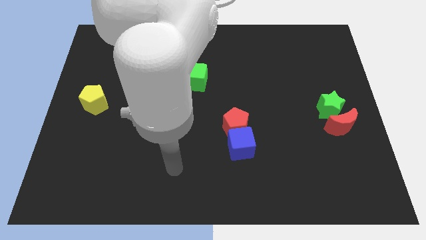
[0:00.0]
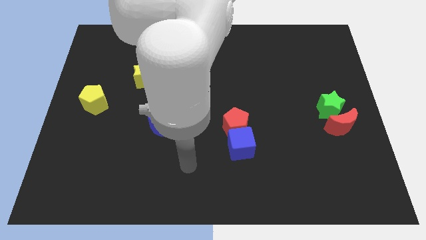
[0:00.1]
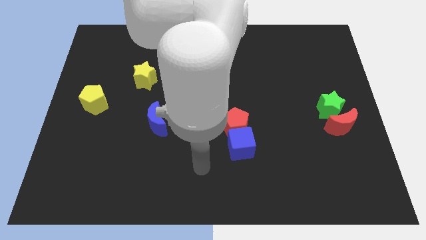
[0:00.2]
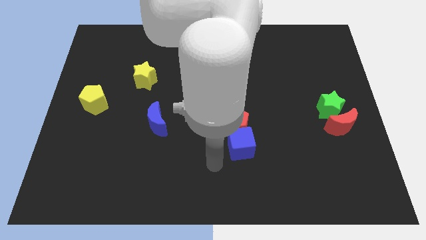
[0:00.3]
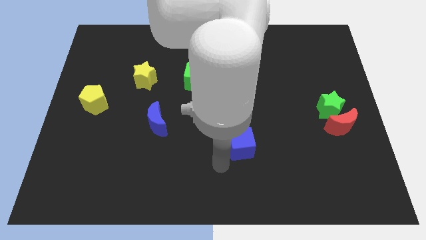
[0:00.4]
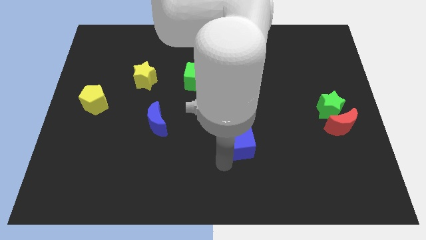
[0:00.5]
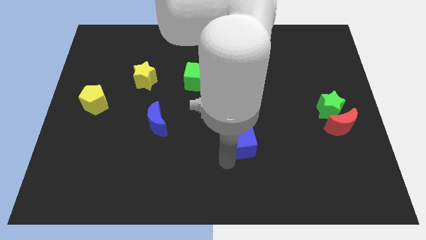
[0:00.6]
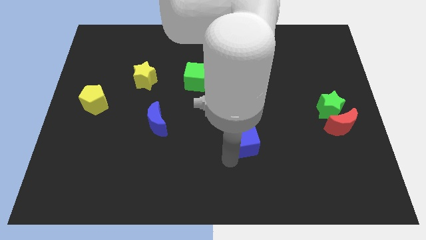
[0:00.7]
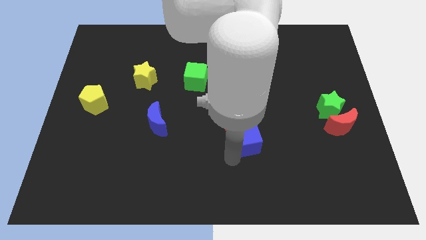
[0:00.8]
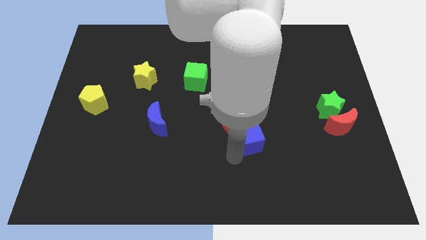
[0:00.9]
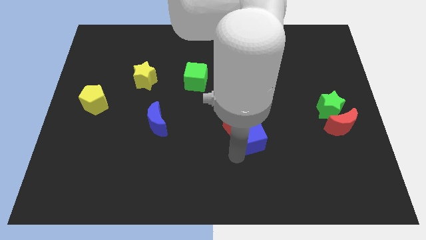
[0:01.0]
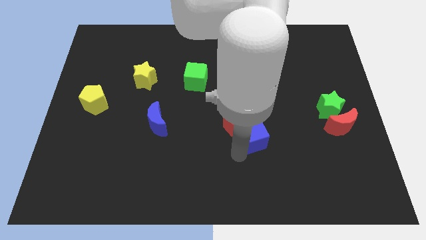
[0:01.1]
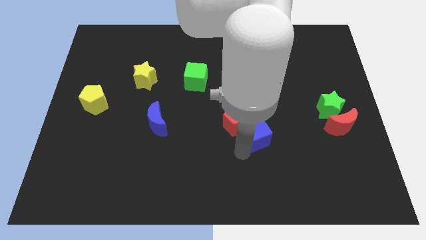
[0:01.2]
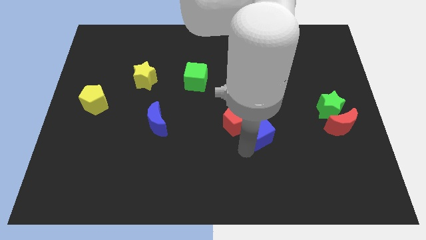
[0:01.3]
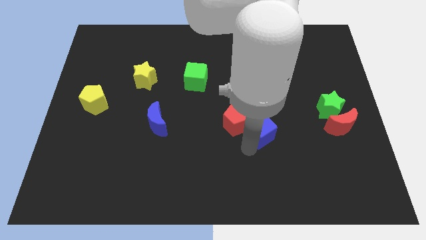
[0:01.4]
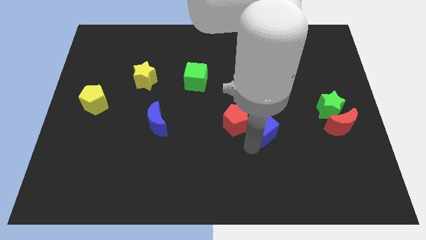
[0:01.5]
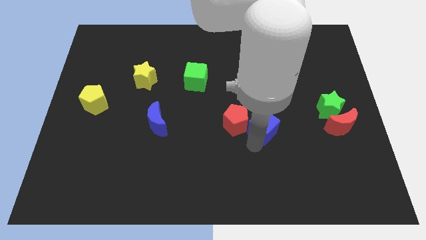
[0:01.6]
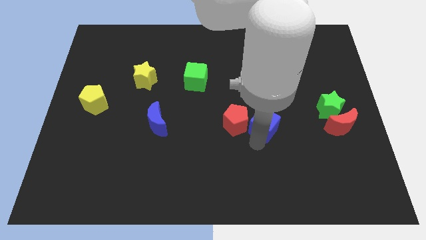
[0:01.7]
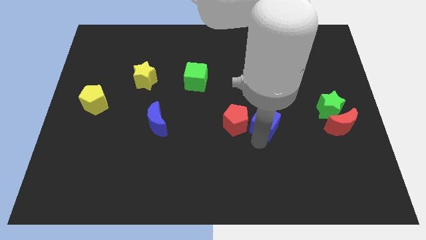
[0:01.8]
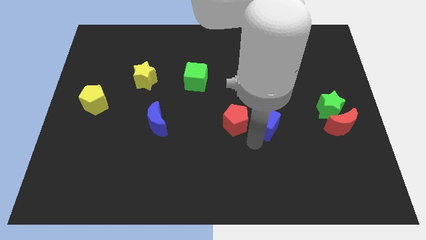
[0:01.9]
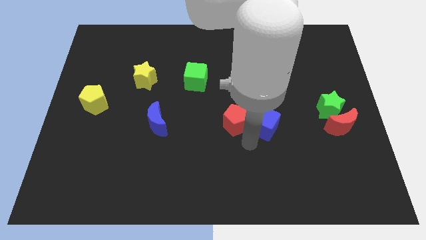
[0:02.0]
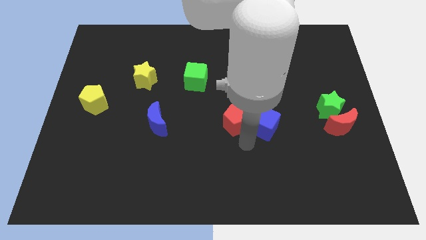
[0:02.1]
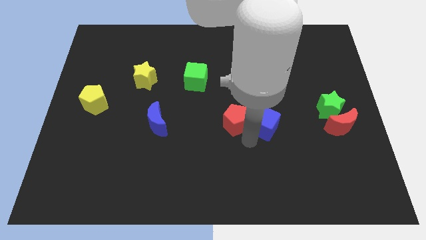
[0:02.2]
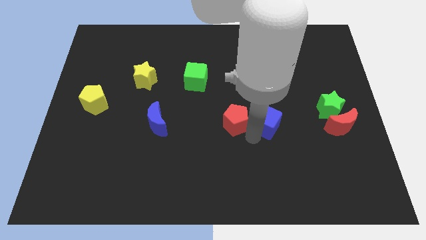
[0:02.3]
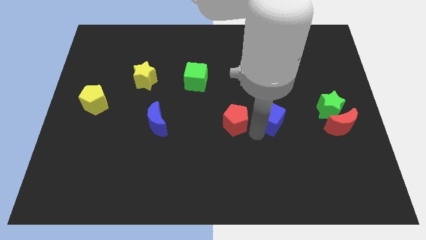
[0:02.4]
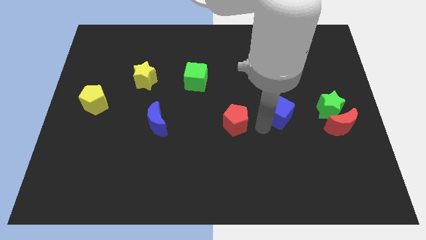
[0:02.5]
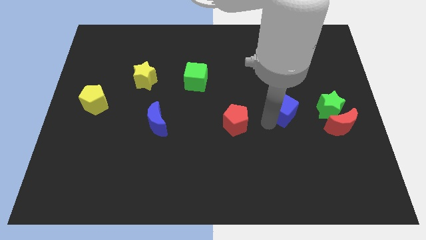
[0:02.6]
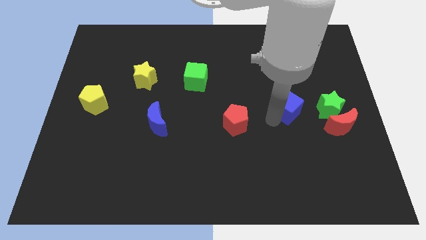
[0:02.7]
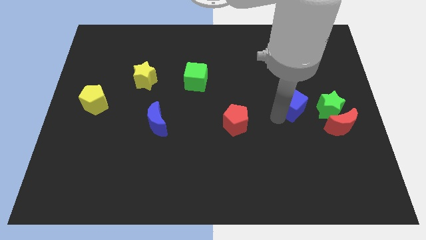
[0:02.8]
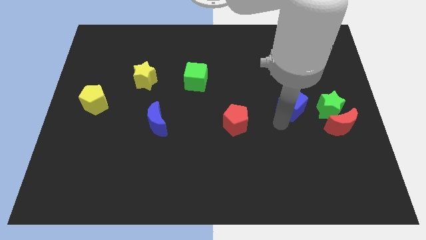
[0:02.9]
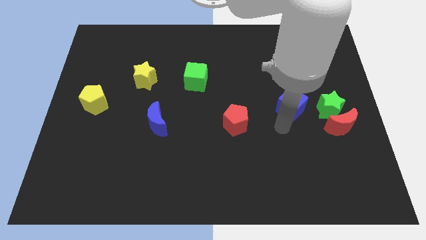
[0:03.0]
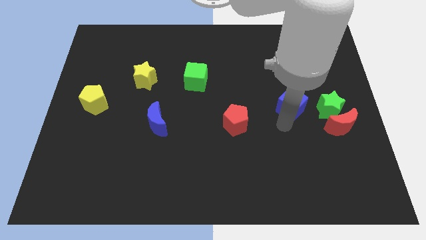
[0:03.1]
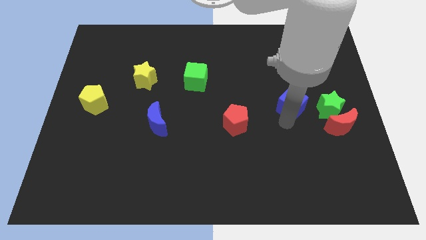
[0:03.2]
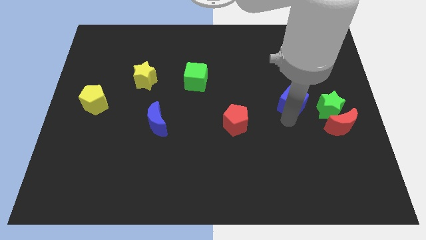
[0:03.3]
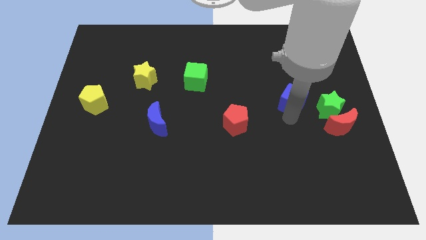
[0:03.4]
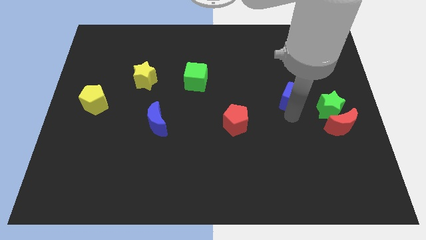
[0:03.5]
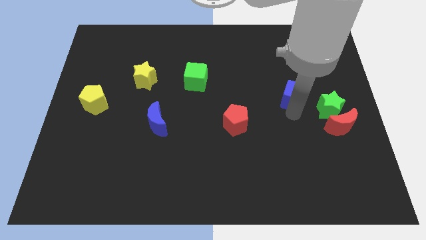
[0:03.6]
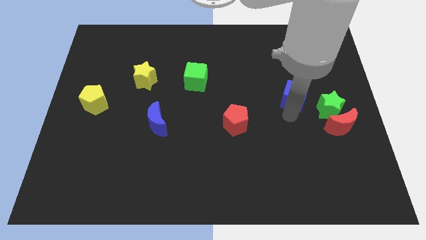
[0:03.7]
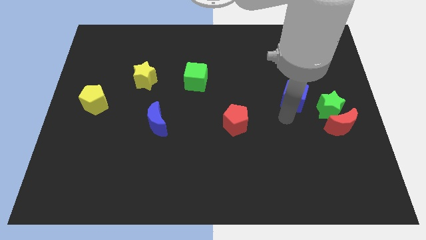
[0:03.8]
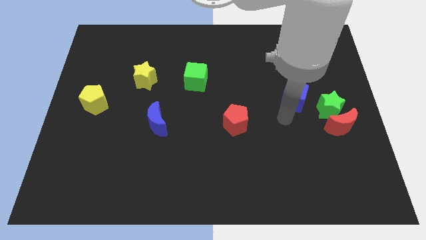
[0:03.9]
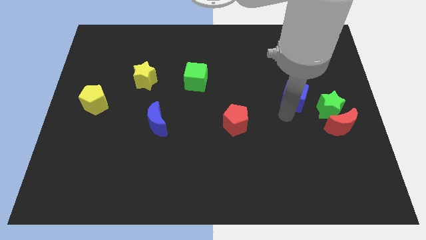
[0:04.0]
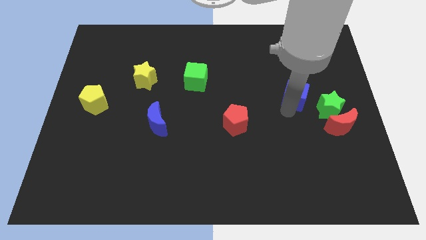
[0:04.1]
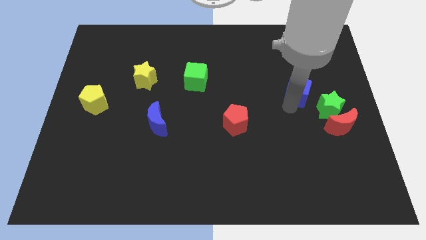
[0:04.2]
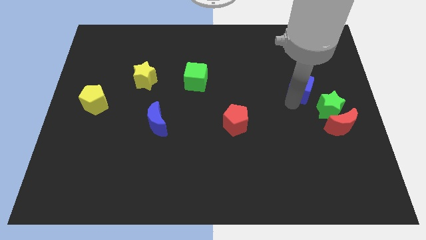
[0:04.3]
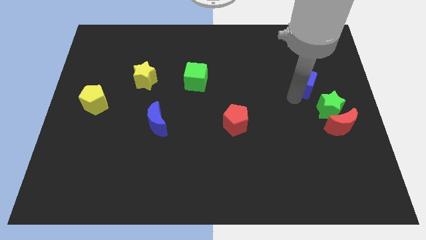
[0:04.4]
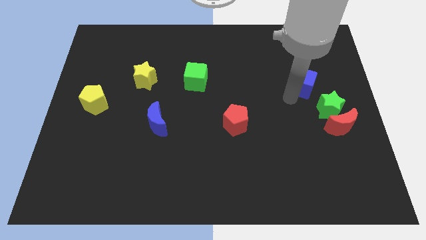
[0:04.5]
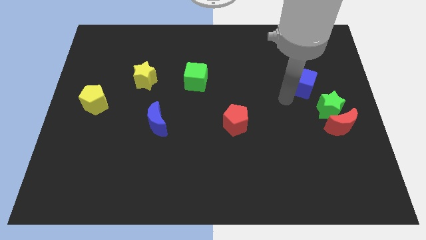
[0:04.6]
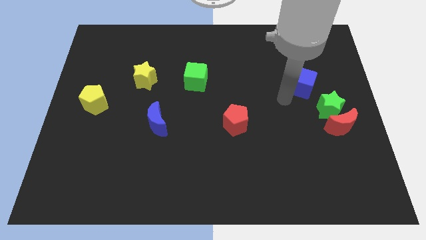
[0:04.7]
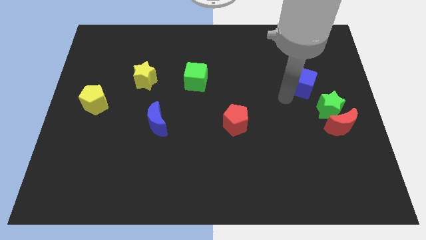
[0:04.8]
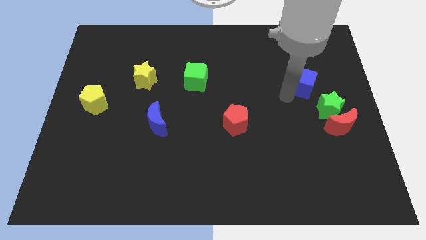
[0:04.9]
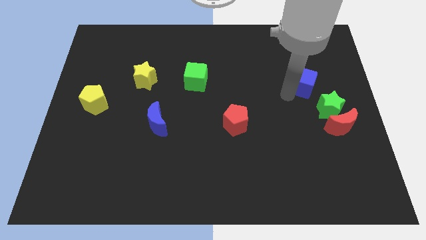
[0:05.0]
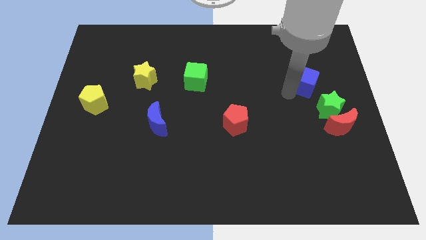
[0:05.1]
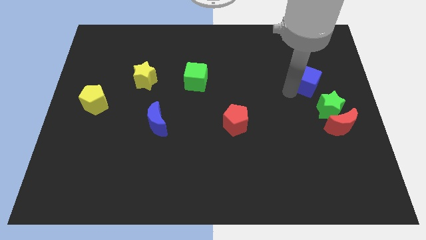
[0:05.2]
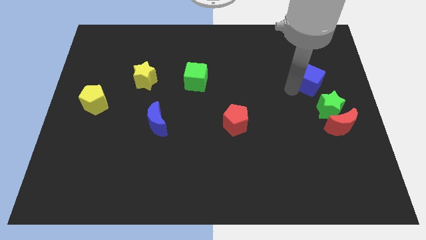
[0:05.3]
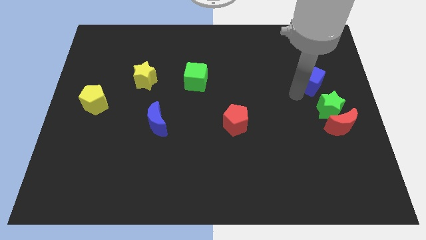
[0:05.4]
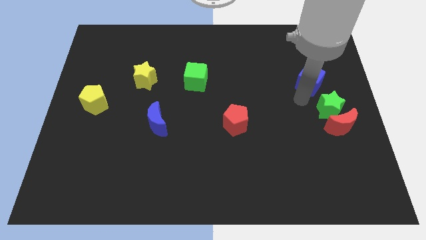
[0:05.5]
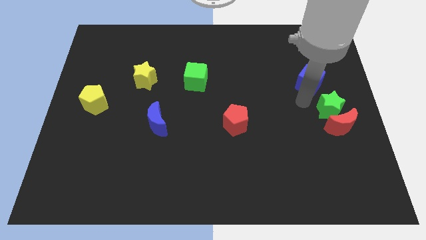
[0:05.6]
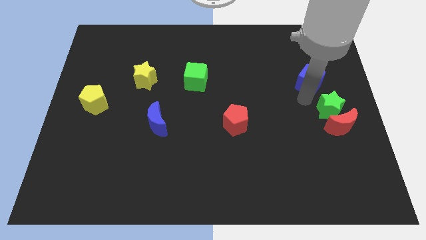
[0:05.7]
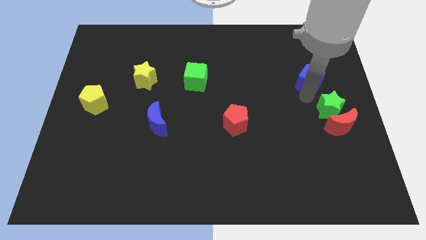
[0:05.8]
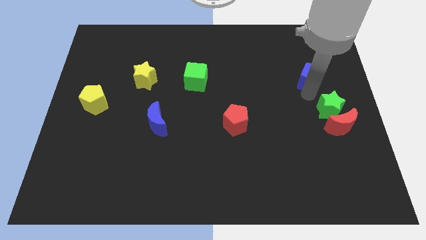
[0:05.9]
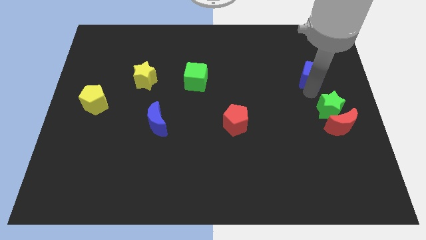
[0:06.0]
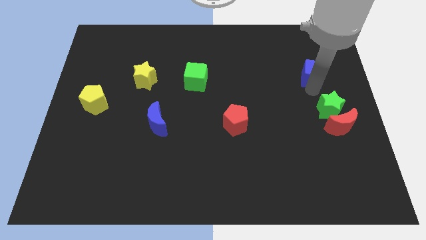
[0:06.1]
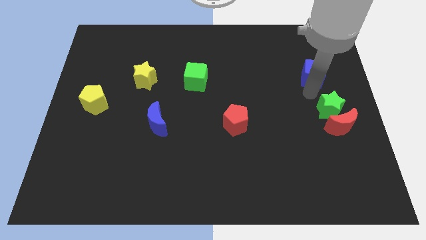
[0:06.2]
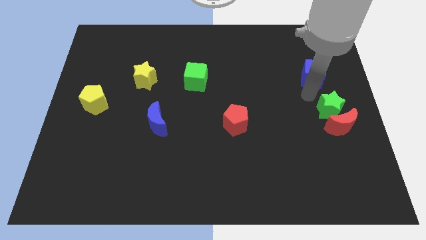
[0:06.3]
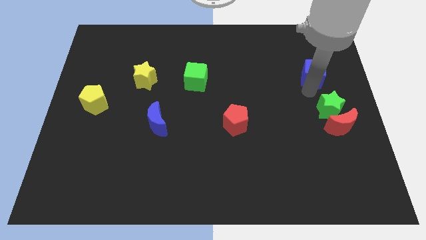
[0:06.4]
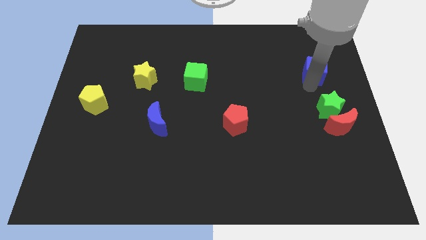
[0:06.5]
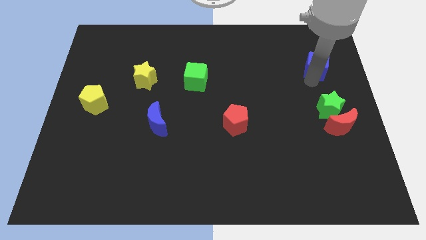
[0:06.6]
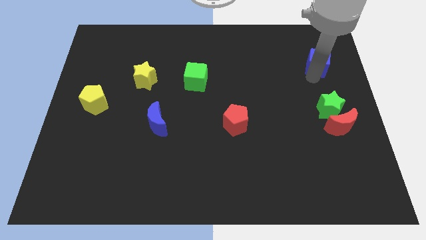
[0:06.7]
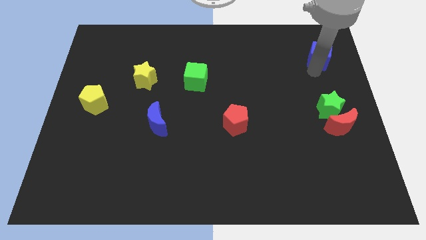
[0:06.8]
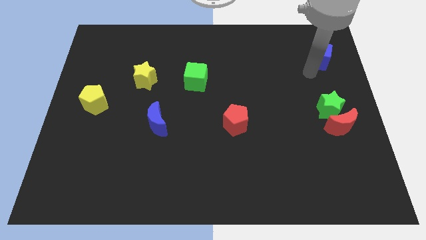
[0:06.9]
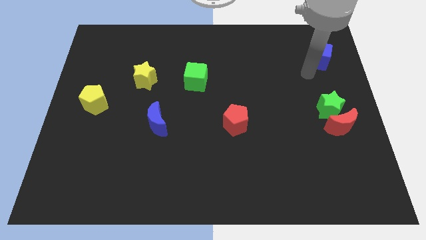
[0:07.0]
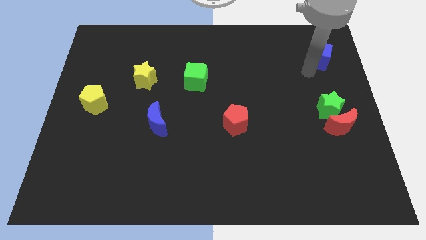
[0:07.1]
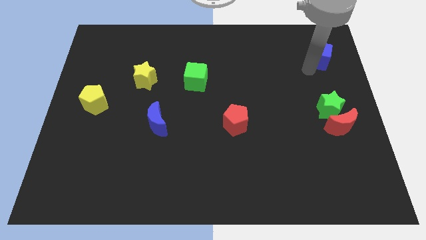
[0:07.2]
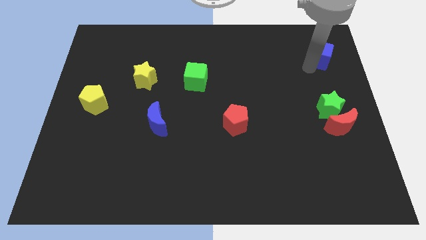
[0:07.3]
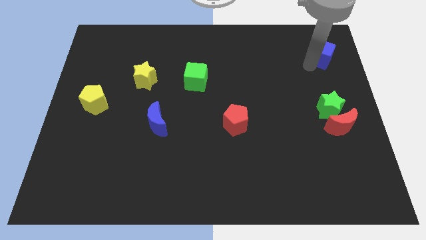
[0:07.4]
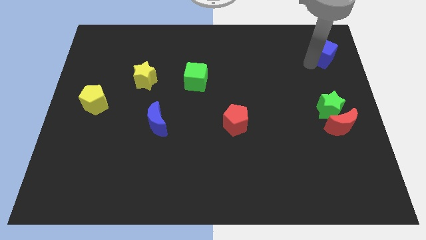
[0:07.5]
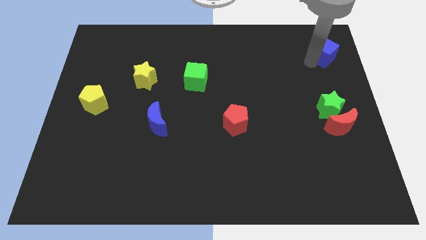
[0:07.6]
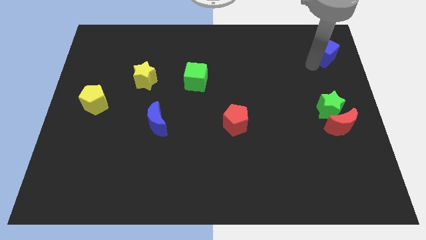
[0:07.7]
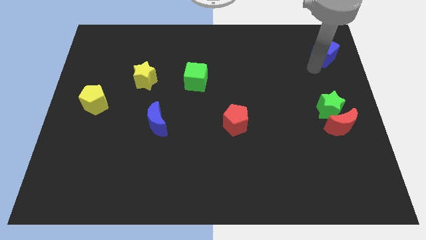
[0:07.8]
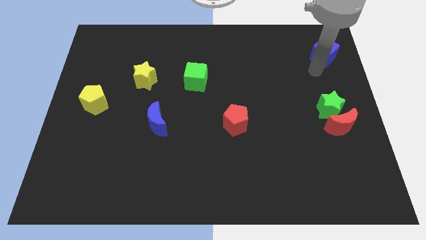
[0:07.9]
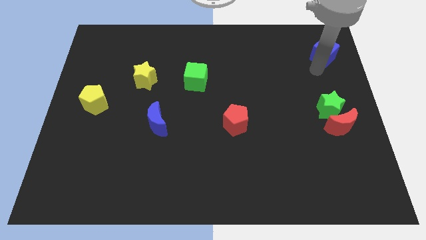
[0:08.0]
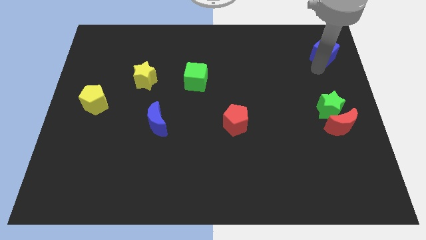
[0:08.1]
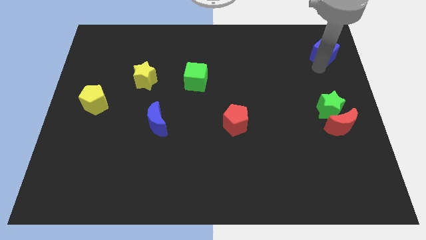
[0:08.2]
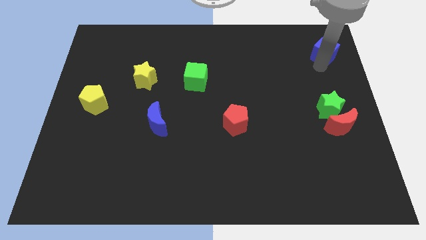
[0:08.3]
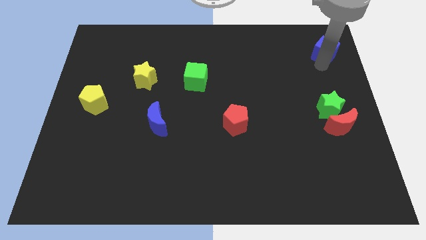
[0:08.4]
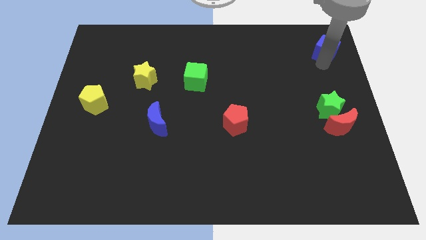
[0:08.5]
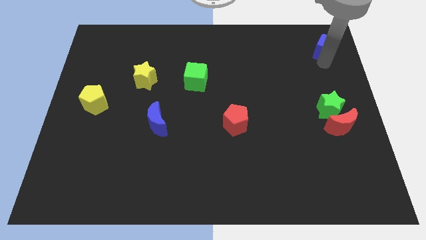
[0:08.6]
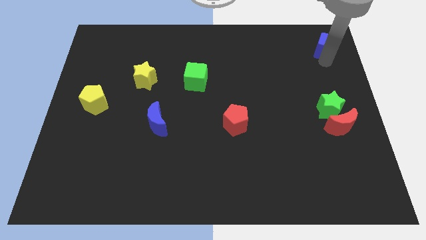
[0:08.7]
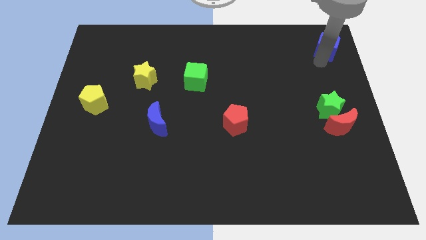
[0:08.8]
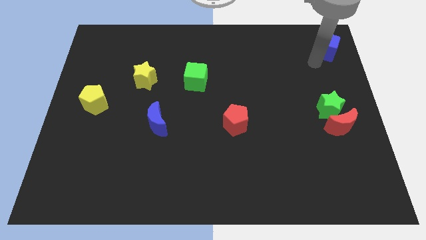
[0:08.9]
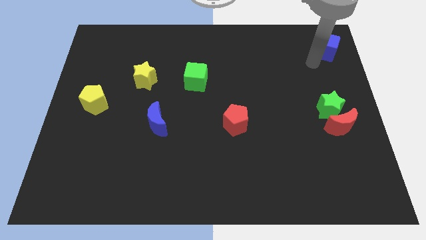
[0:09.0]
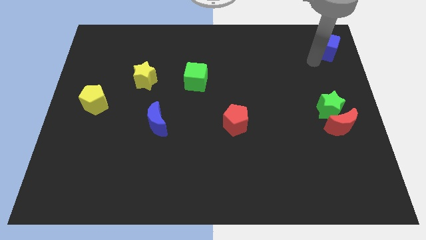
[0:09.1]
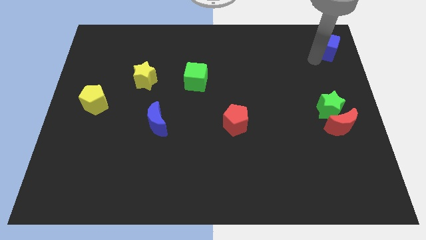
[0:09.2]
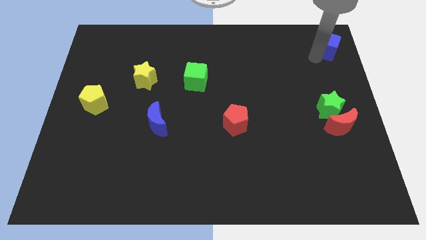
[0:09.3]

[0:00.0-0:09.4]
push the blue cube to the top right
